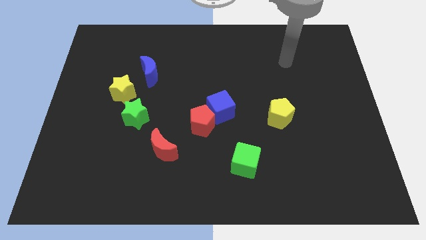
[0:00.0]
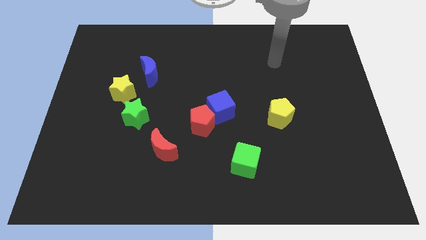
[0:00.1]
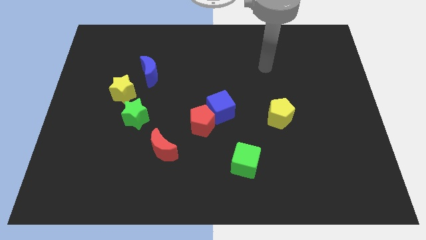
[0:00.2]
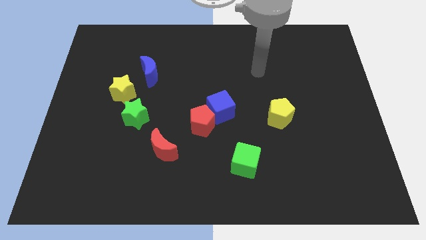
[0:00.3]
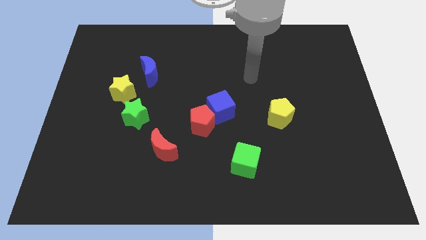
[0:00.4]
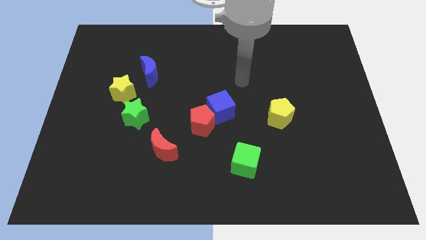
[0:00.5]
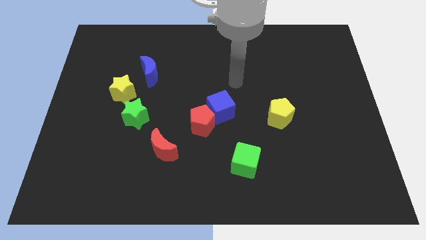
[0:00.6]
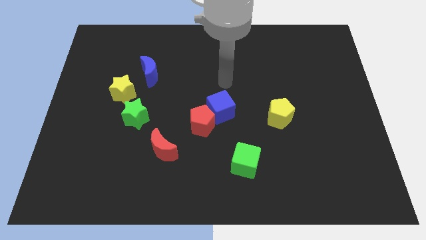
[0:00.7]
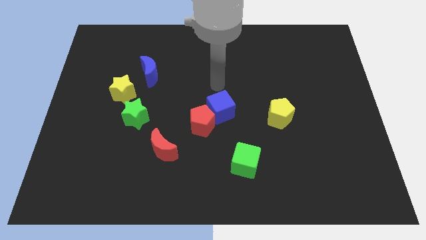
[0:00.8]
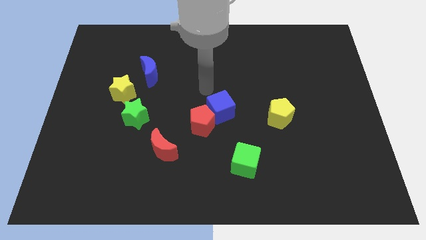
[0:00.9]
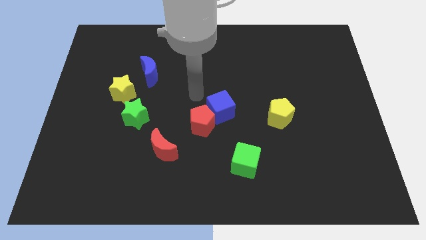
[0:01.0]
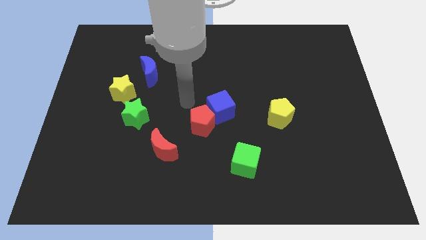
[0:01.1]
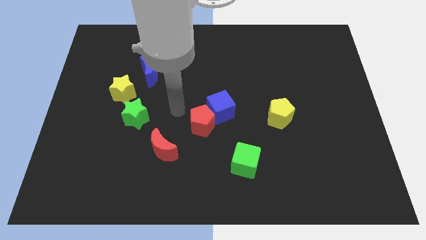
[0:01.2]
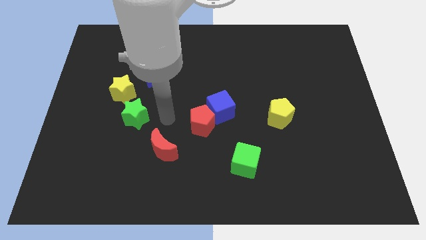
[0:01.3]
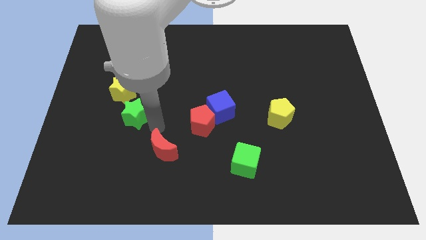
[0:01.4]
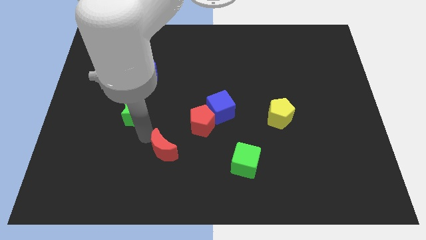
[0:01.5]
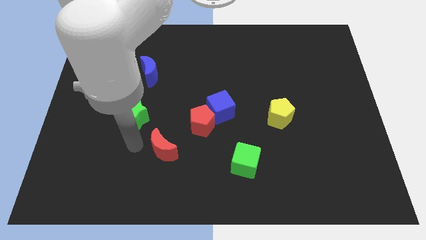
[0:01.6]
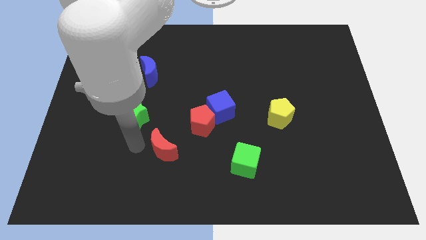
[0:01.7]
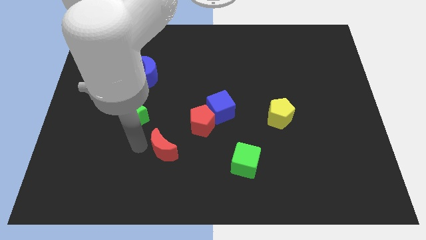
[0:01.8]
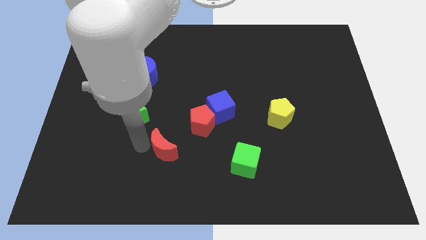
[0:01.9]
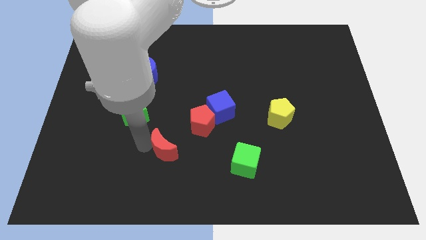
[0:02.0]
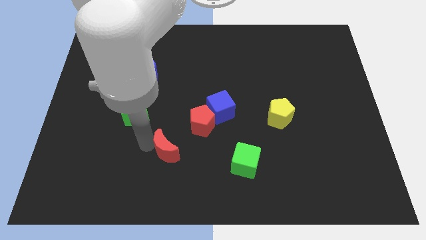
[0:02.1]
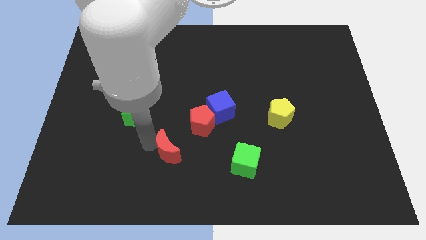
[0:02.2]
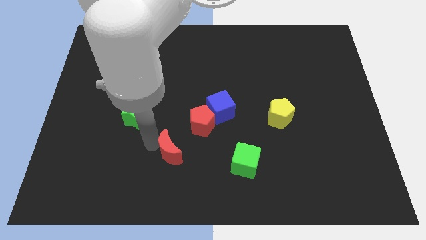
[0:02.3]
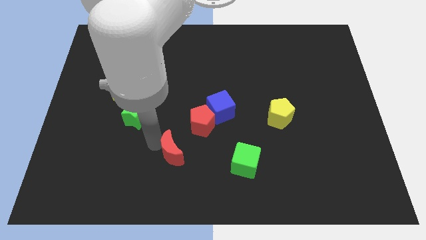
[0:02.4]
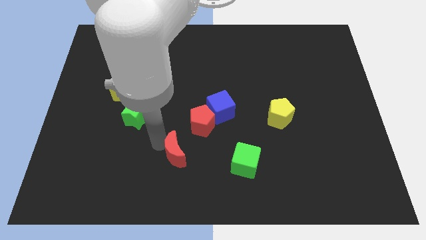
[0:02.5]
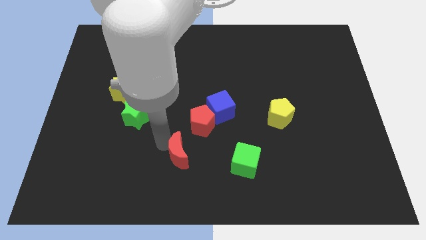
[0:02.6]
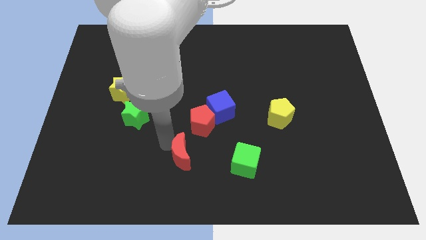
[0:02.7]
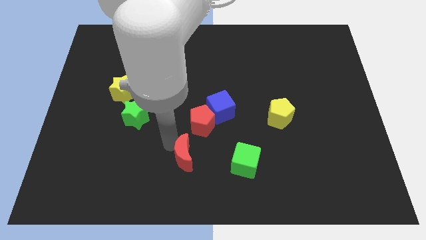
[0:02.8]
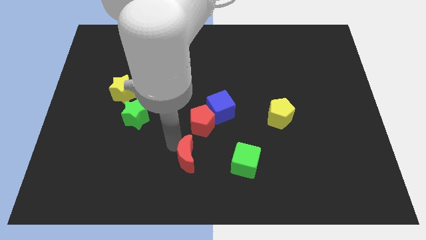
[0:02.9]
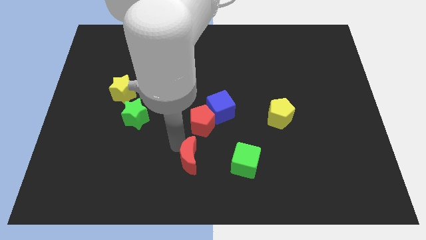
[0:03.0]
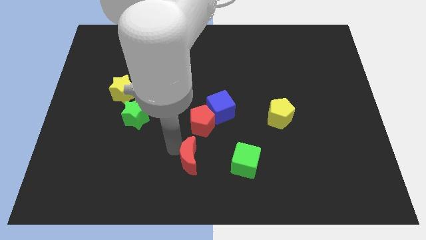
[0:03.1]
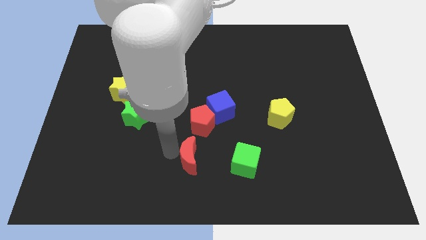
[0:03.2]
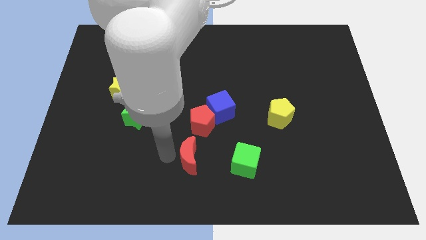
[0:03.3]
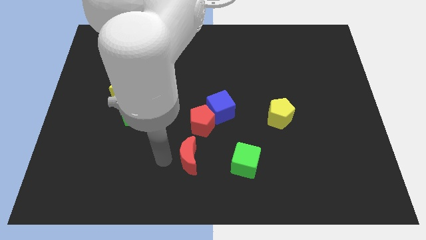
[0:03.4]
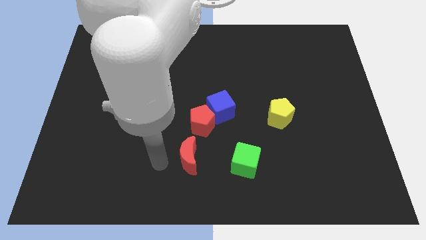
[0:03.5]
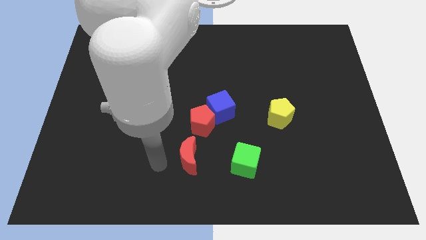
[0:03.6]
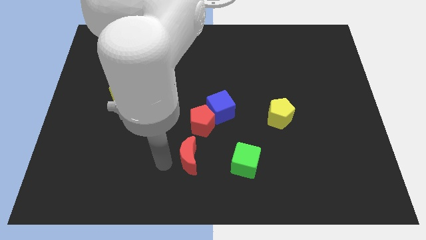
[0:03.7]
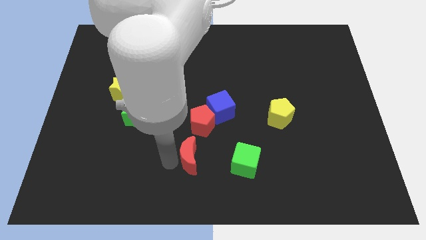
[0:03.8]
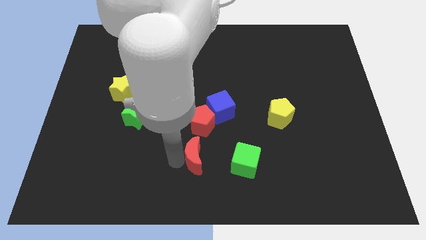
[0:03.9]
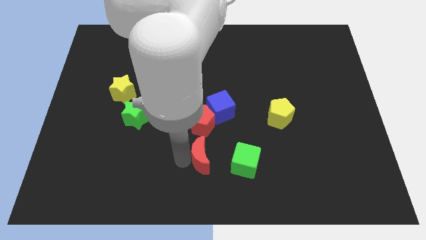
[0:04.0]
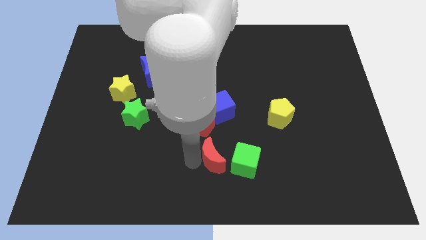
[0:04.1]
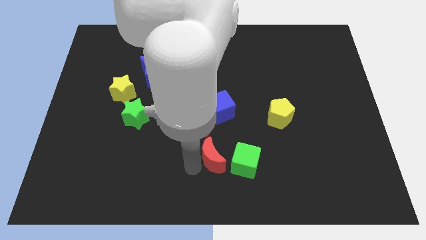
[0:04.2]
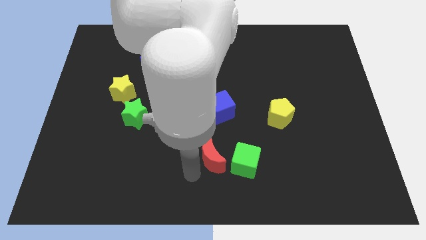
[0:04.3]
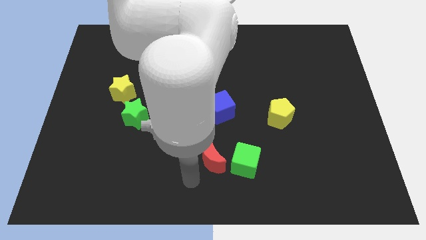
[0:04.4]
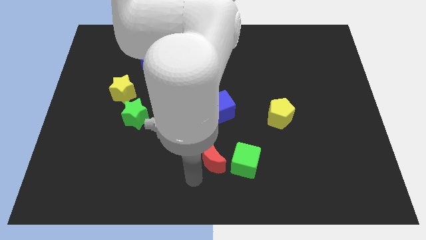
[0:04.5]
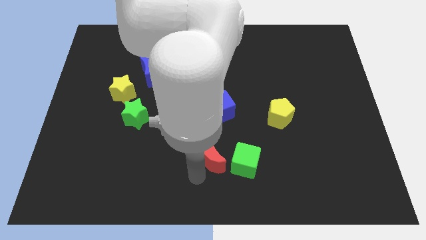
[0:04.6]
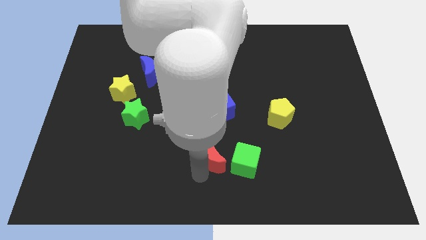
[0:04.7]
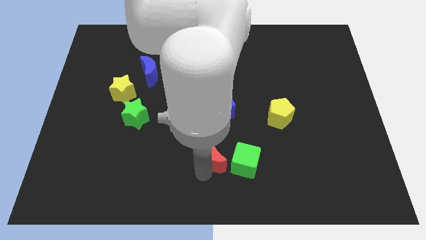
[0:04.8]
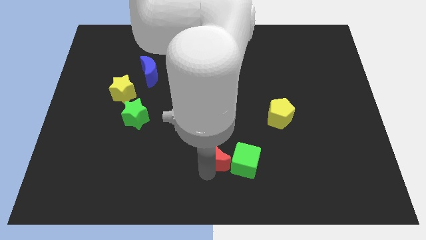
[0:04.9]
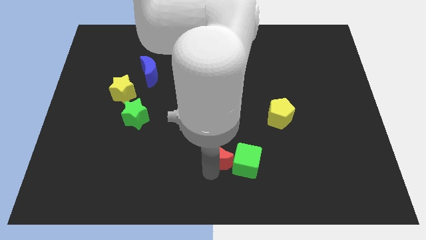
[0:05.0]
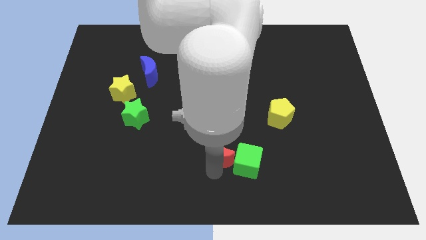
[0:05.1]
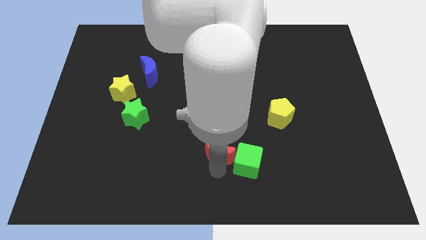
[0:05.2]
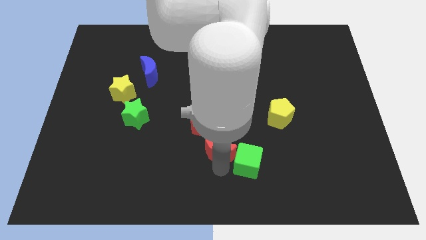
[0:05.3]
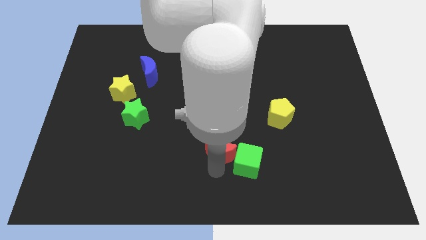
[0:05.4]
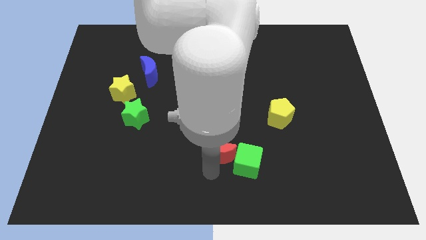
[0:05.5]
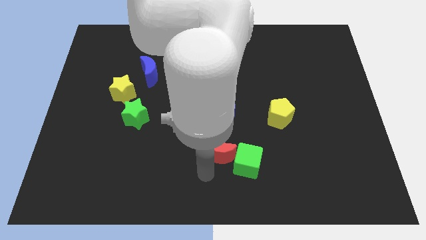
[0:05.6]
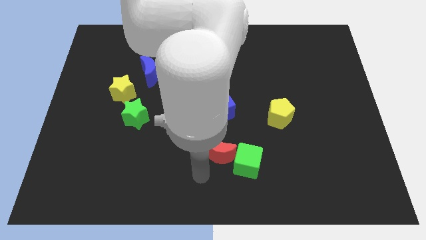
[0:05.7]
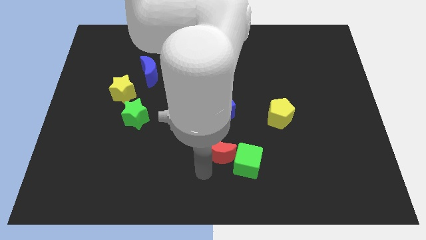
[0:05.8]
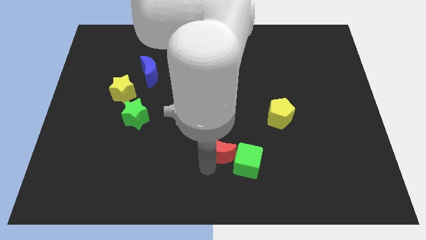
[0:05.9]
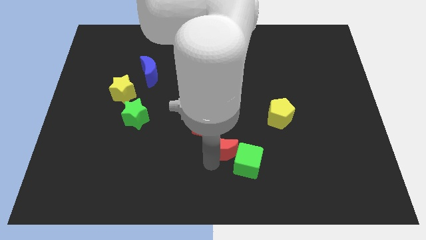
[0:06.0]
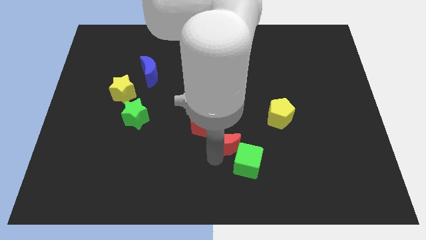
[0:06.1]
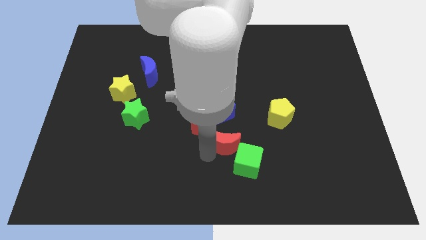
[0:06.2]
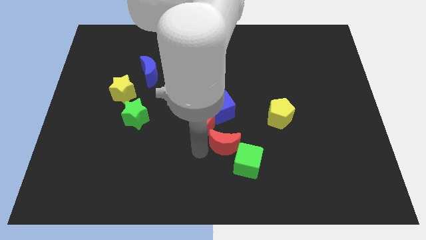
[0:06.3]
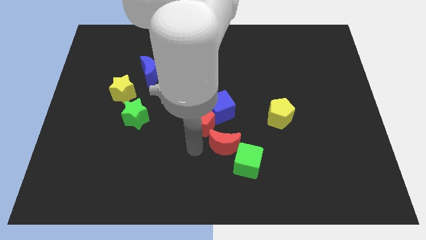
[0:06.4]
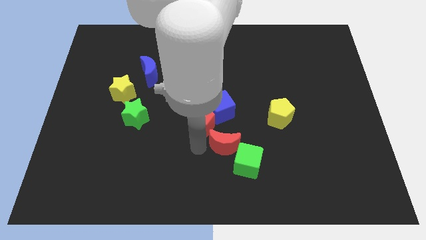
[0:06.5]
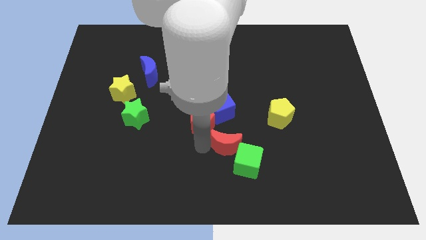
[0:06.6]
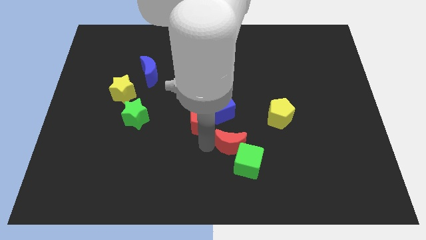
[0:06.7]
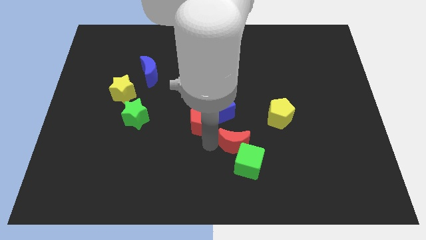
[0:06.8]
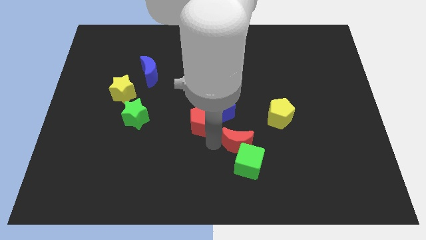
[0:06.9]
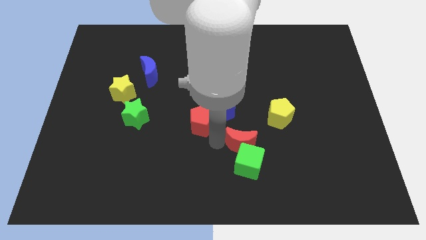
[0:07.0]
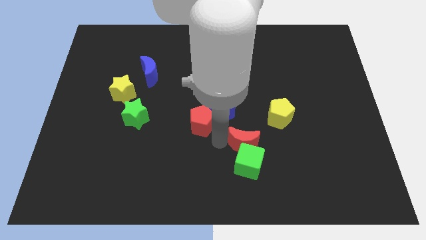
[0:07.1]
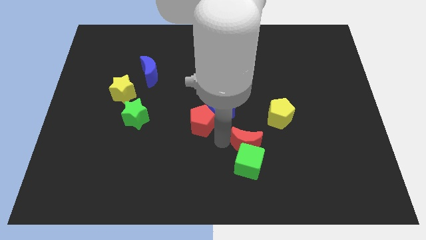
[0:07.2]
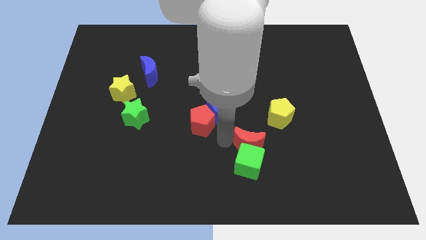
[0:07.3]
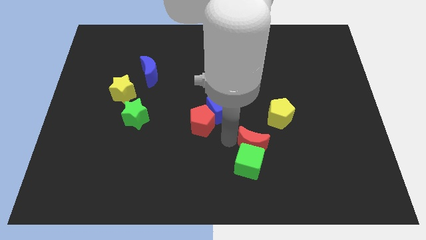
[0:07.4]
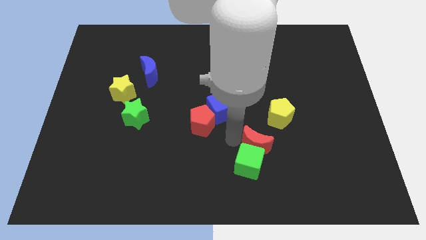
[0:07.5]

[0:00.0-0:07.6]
push the red moon to the right

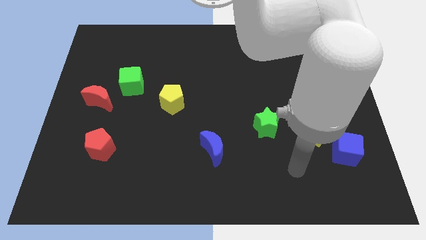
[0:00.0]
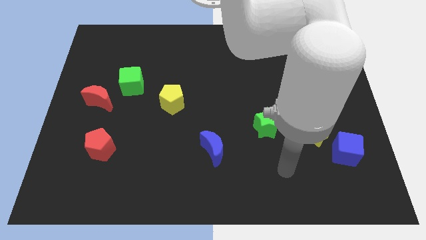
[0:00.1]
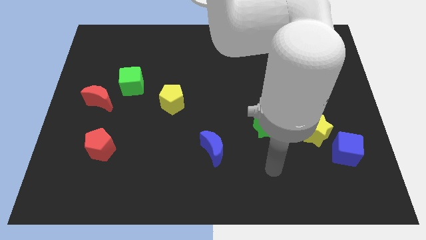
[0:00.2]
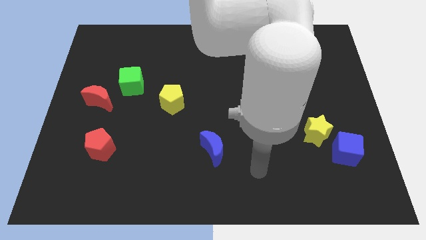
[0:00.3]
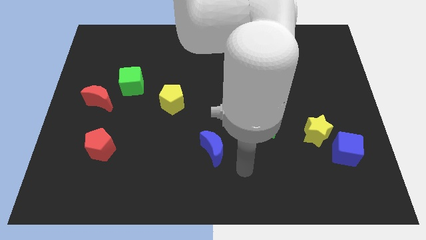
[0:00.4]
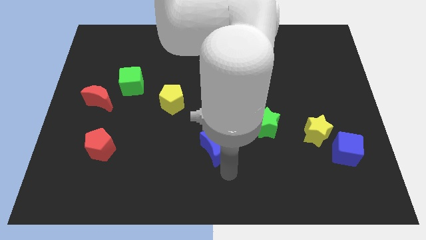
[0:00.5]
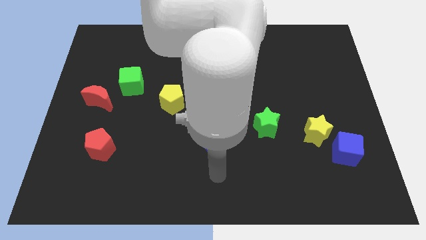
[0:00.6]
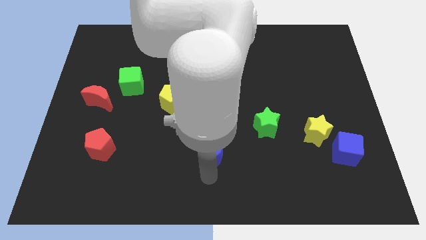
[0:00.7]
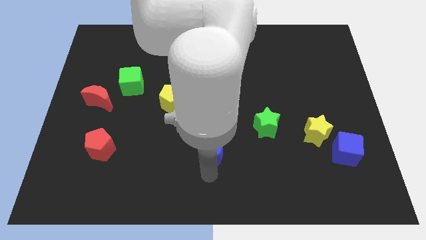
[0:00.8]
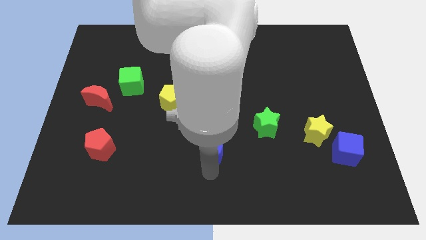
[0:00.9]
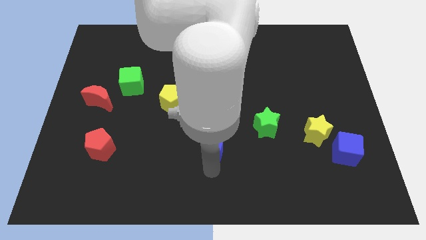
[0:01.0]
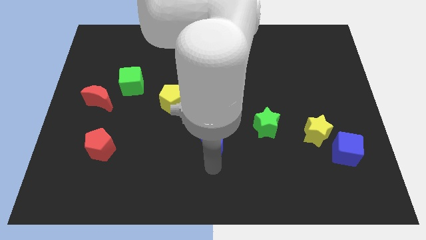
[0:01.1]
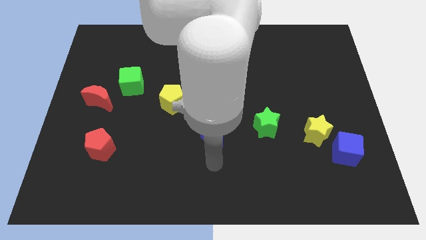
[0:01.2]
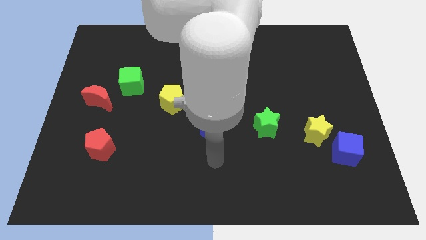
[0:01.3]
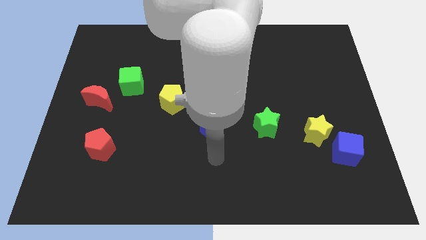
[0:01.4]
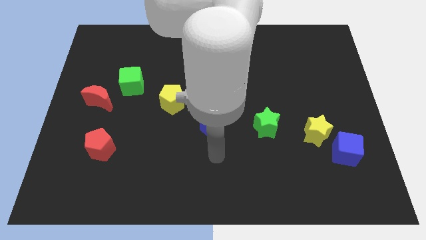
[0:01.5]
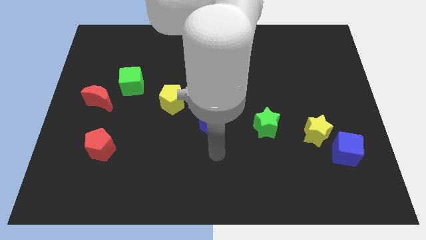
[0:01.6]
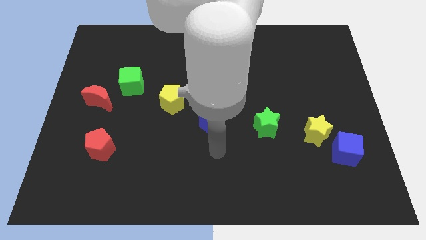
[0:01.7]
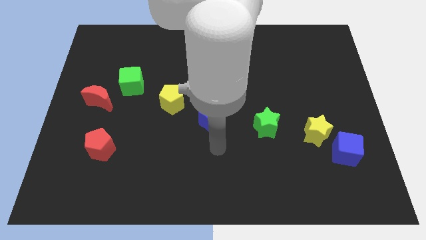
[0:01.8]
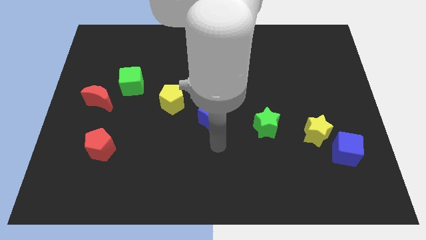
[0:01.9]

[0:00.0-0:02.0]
move the blue moon somewhat up
